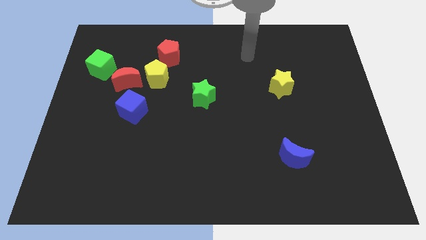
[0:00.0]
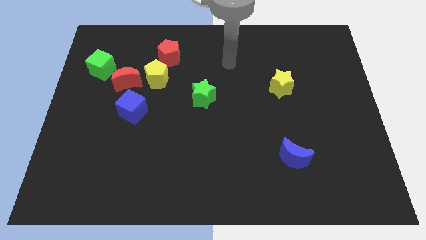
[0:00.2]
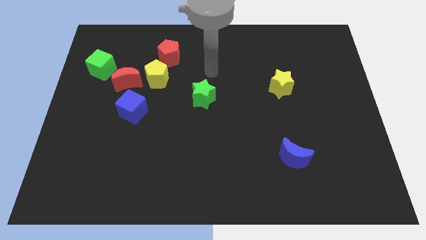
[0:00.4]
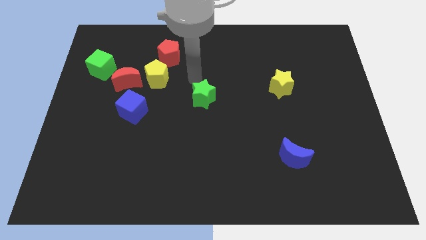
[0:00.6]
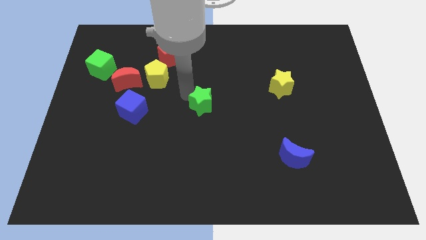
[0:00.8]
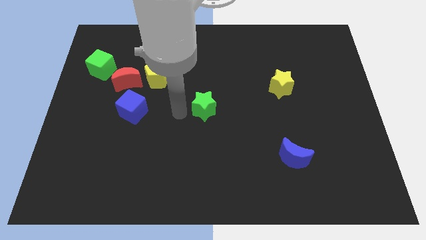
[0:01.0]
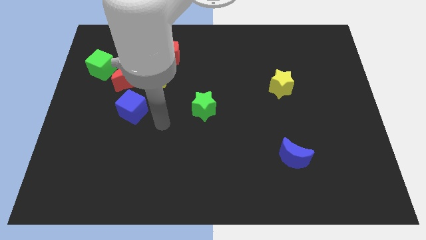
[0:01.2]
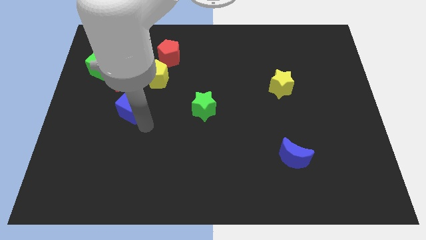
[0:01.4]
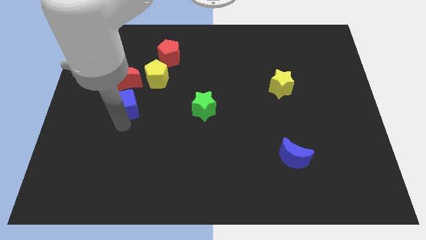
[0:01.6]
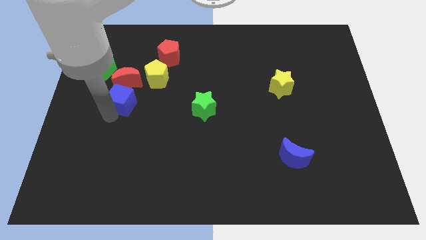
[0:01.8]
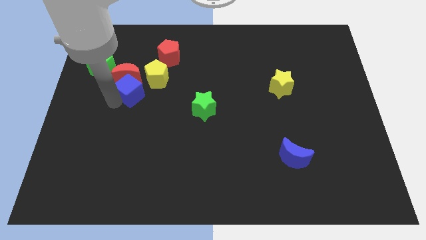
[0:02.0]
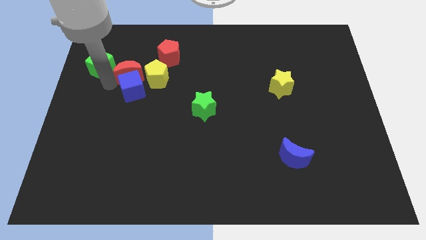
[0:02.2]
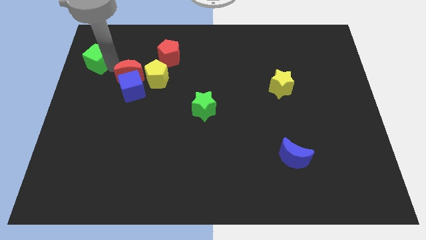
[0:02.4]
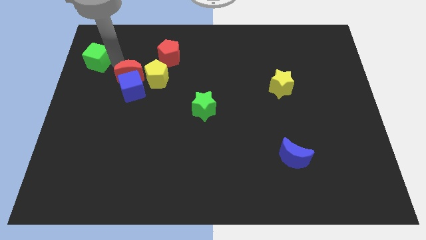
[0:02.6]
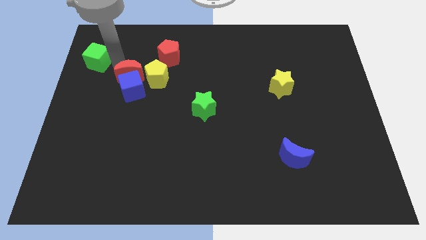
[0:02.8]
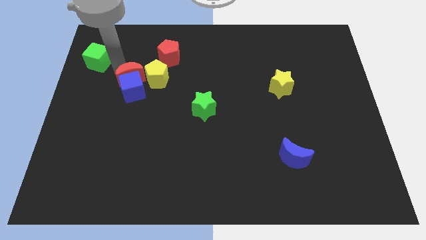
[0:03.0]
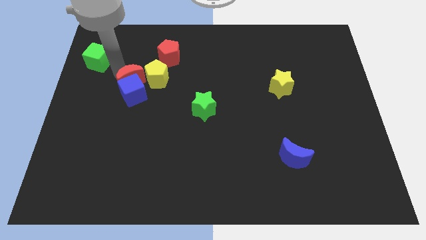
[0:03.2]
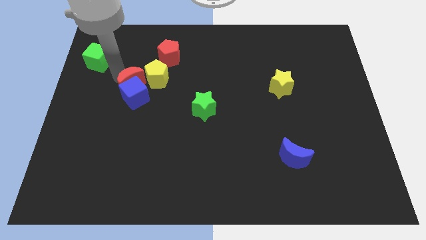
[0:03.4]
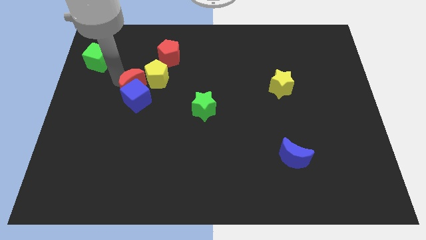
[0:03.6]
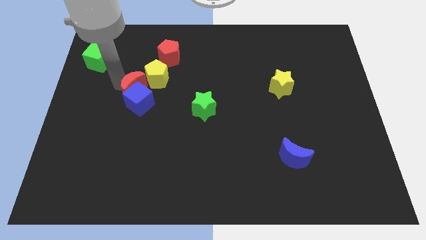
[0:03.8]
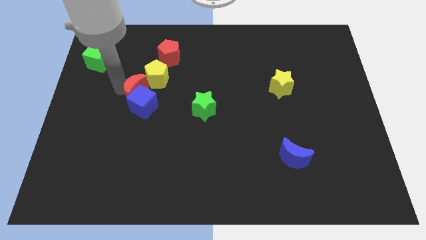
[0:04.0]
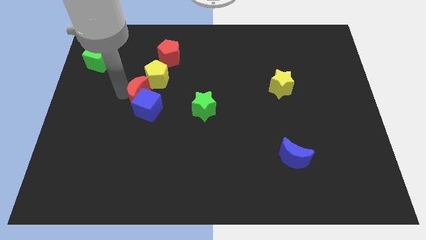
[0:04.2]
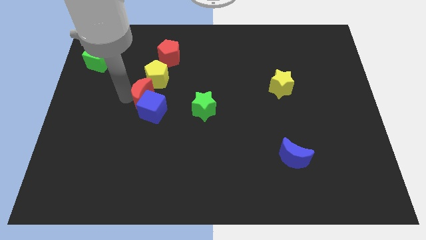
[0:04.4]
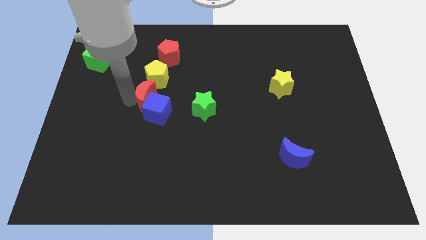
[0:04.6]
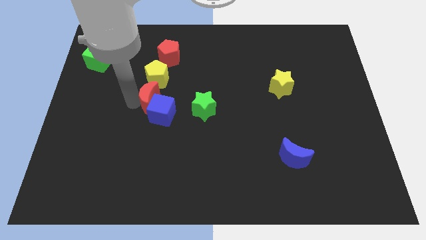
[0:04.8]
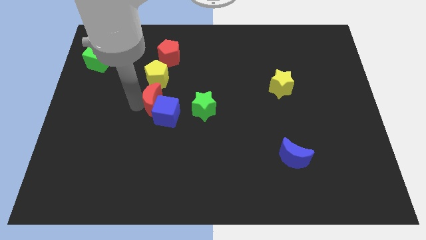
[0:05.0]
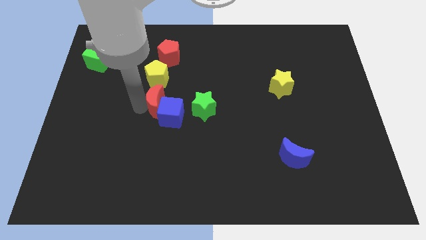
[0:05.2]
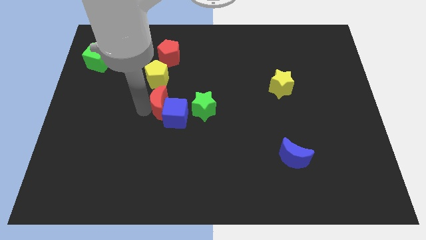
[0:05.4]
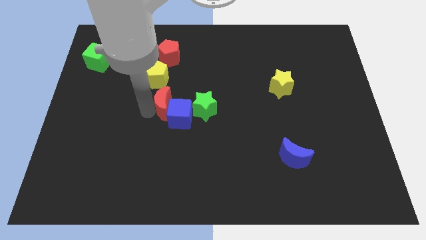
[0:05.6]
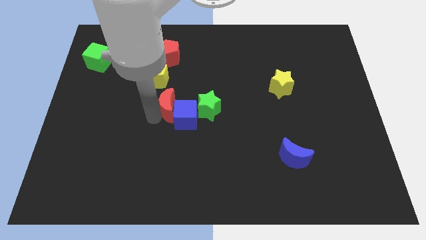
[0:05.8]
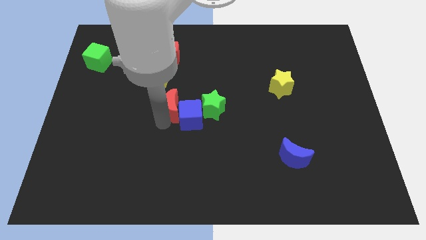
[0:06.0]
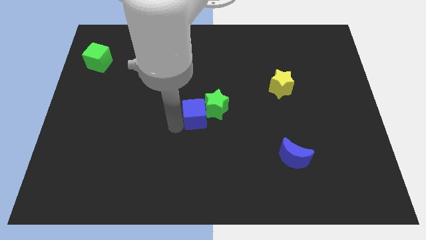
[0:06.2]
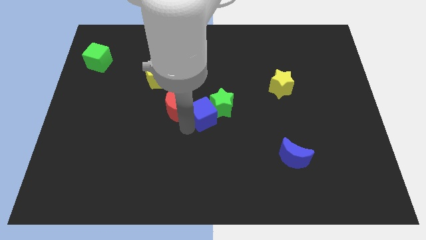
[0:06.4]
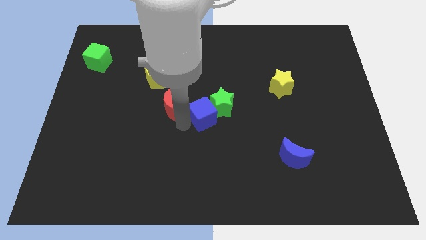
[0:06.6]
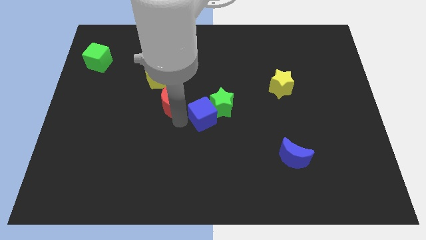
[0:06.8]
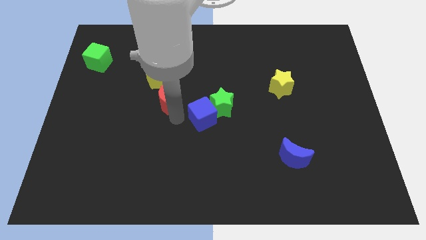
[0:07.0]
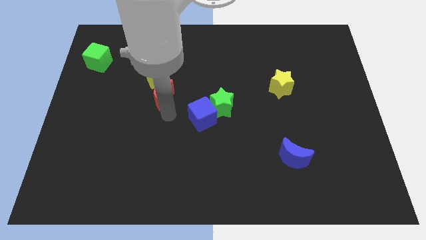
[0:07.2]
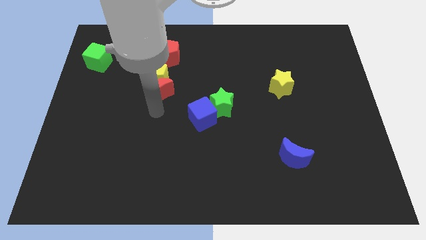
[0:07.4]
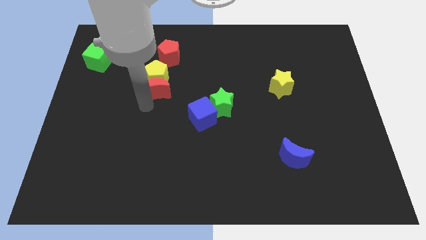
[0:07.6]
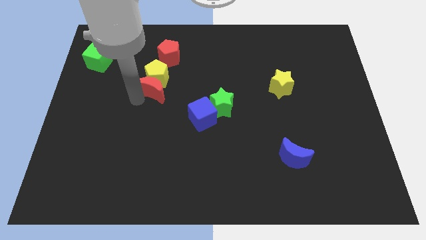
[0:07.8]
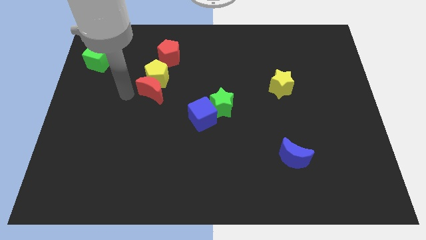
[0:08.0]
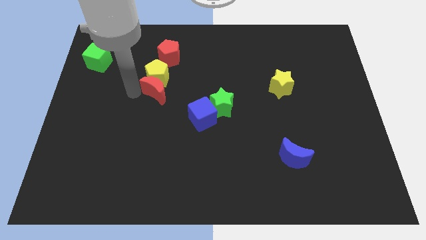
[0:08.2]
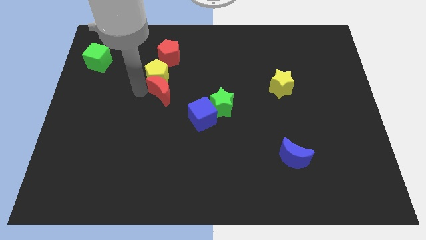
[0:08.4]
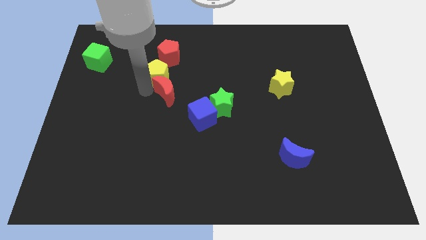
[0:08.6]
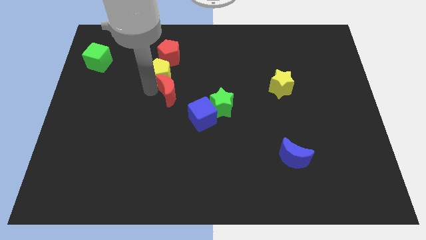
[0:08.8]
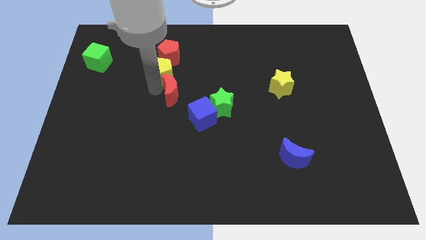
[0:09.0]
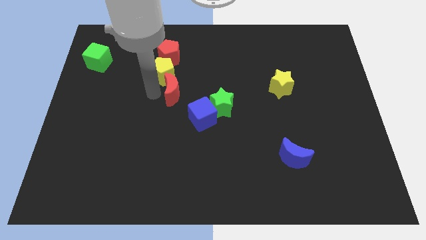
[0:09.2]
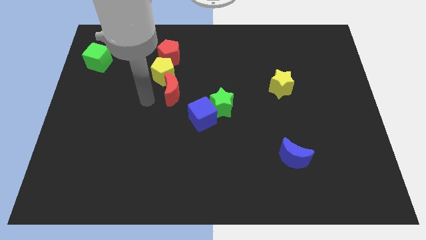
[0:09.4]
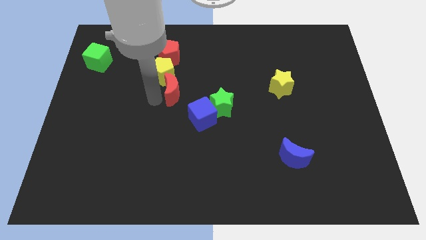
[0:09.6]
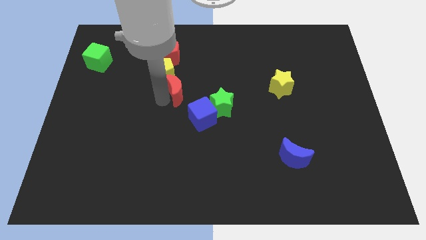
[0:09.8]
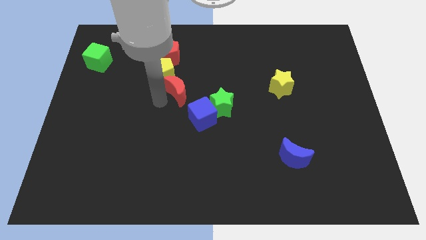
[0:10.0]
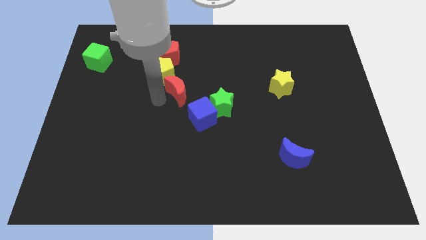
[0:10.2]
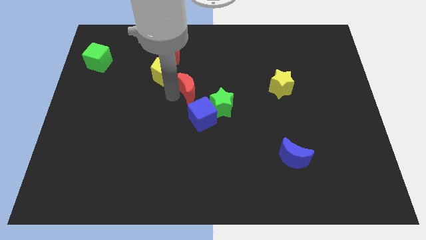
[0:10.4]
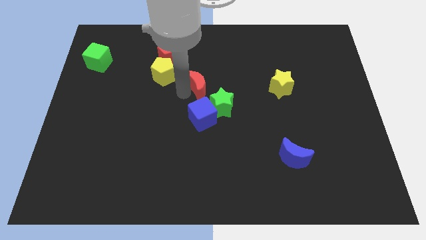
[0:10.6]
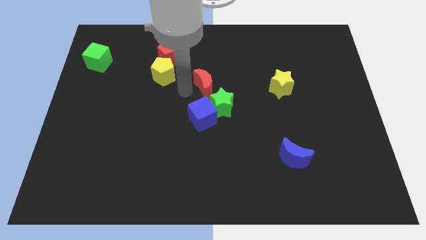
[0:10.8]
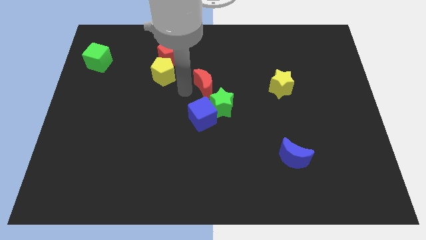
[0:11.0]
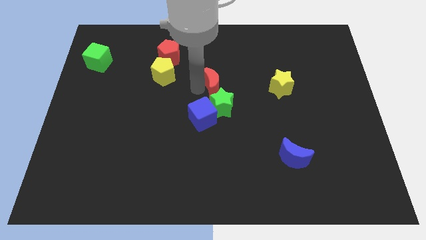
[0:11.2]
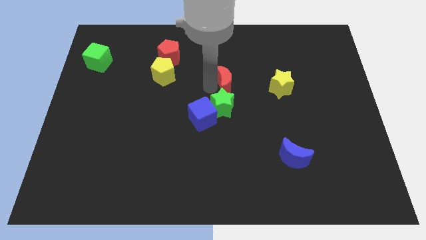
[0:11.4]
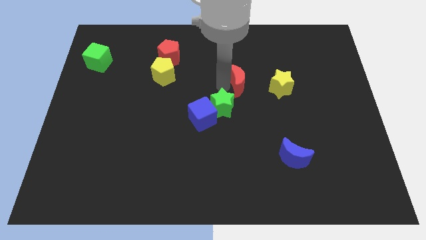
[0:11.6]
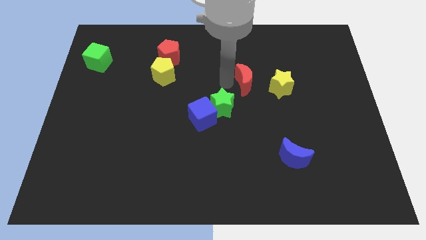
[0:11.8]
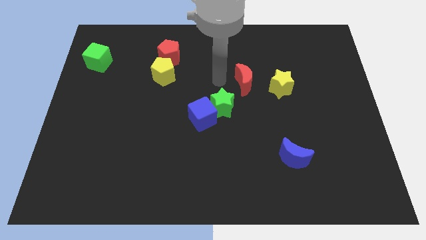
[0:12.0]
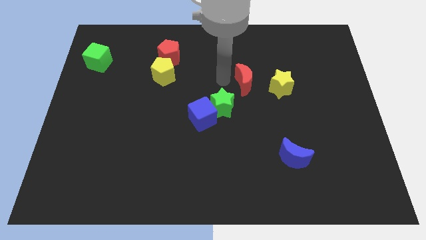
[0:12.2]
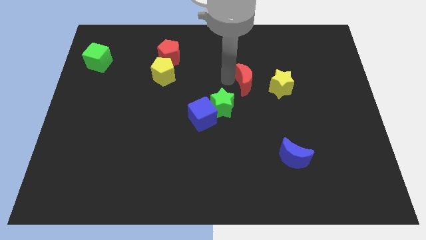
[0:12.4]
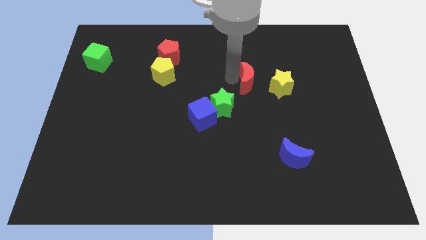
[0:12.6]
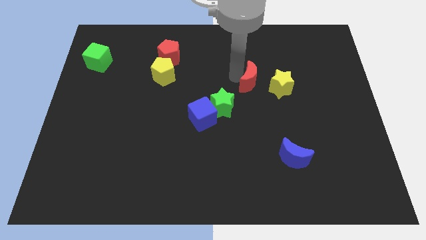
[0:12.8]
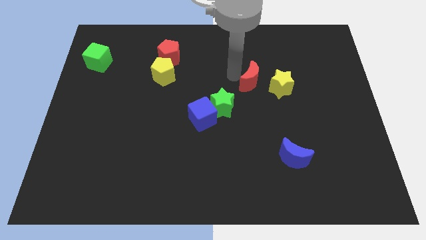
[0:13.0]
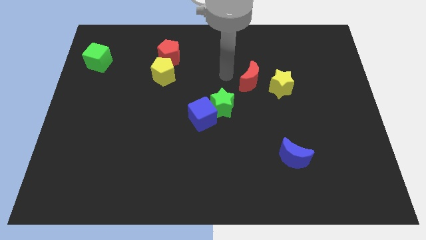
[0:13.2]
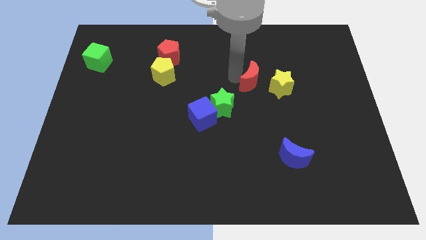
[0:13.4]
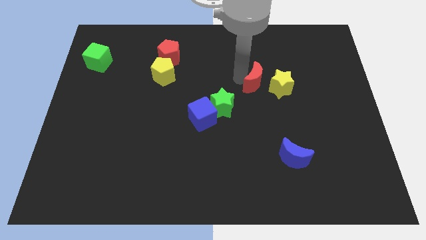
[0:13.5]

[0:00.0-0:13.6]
slide the red moon towards the yellow star

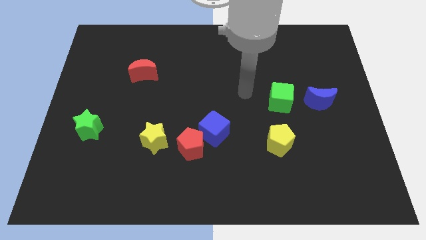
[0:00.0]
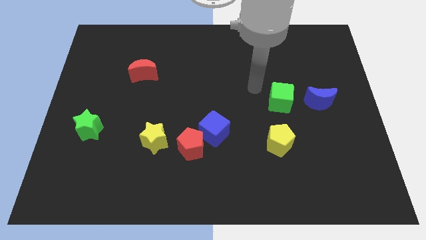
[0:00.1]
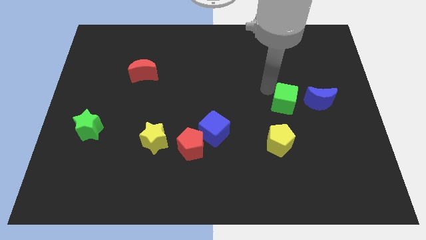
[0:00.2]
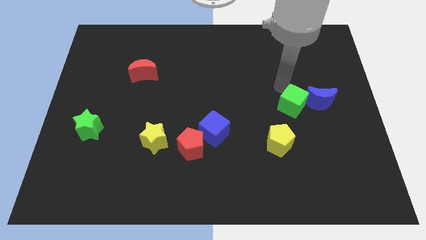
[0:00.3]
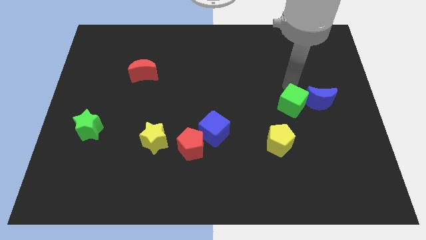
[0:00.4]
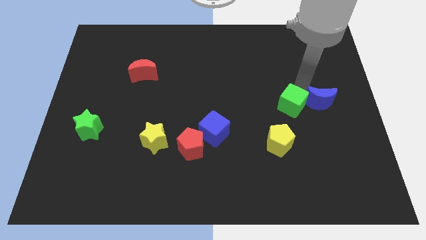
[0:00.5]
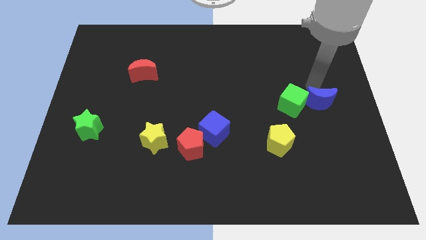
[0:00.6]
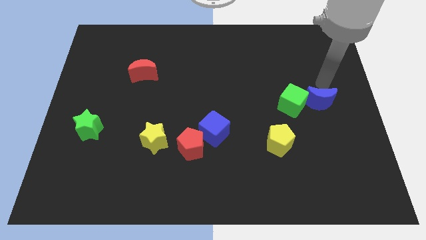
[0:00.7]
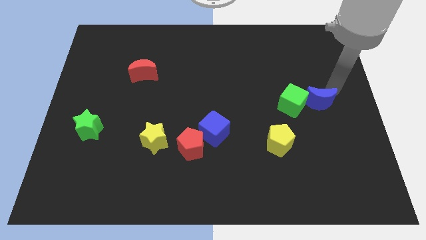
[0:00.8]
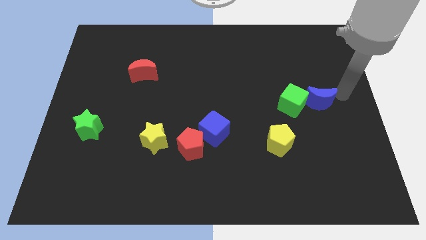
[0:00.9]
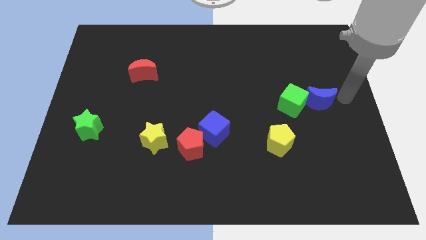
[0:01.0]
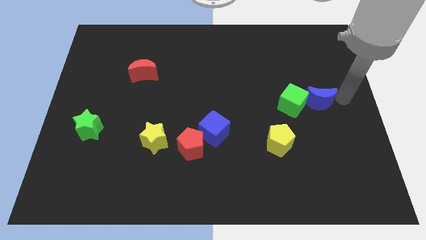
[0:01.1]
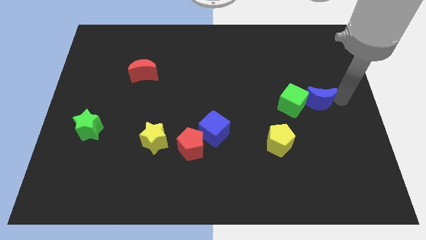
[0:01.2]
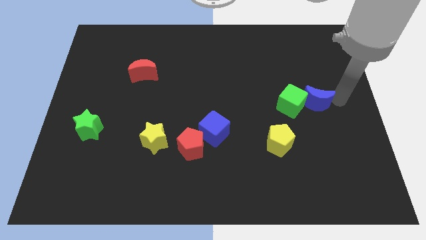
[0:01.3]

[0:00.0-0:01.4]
push the blue moon towards the green cube
